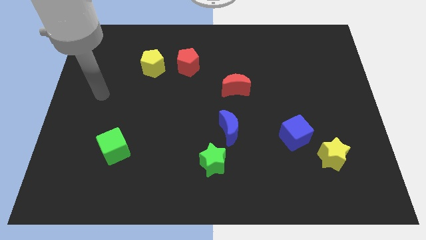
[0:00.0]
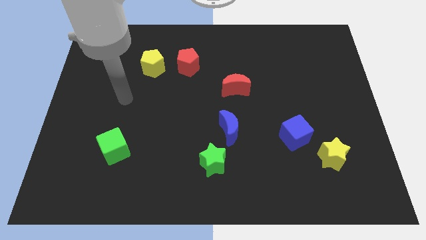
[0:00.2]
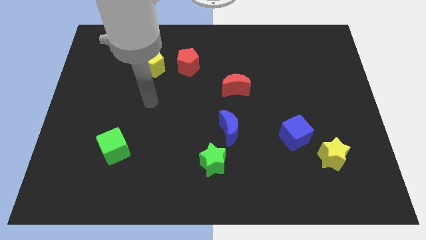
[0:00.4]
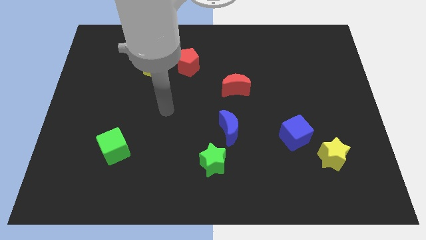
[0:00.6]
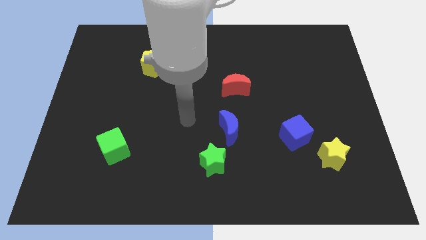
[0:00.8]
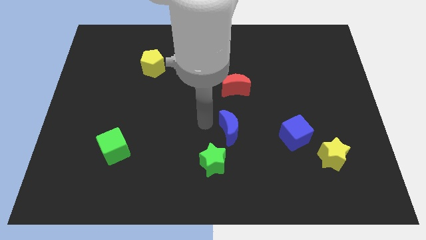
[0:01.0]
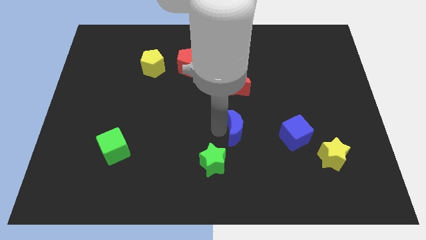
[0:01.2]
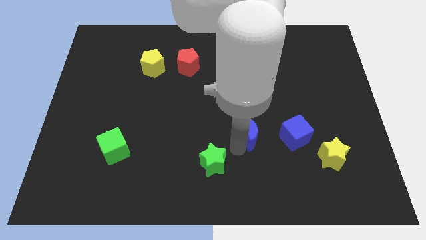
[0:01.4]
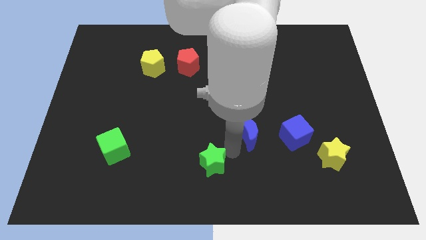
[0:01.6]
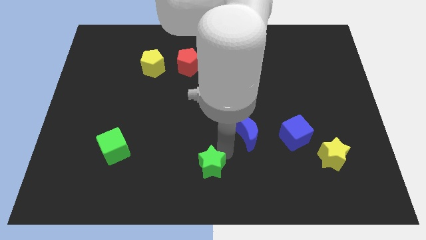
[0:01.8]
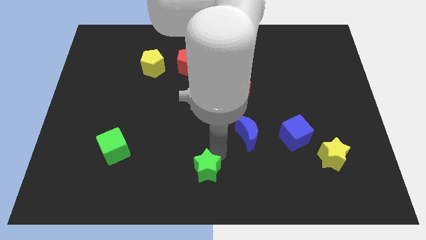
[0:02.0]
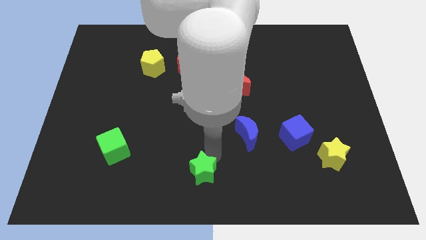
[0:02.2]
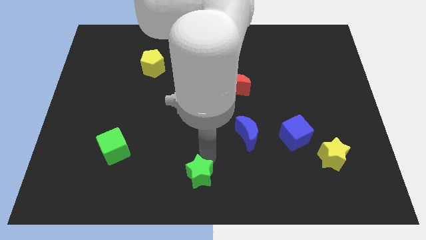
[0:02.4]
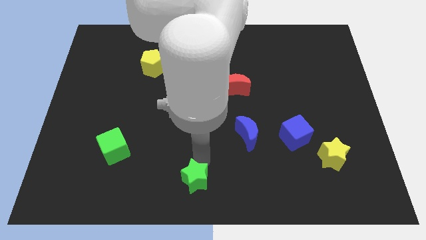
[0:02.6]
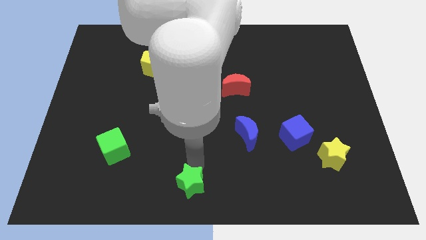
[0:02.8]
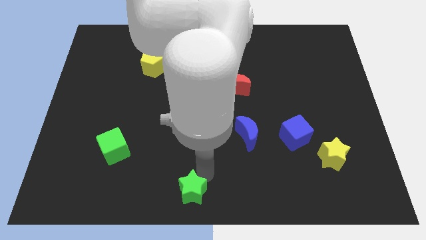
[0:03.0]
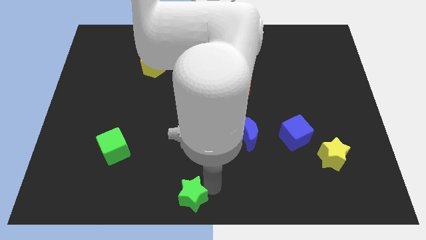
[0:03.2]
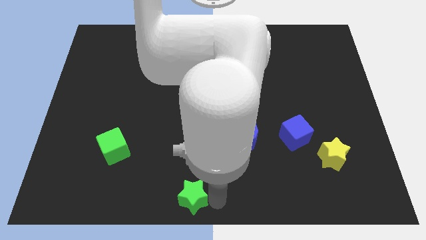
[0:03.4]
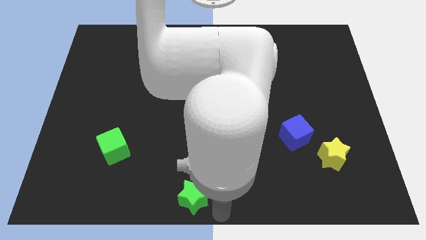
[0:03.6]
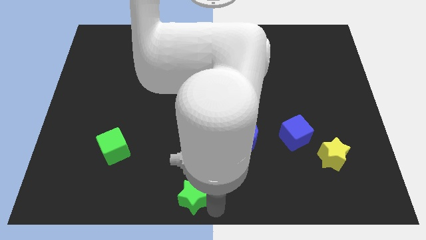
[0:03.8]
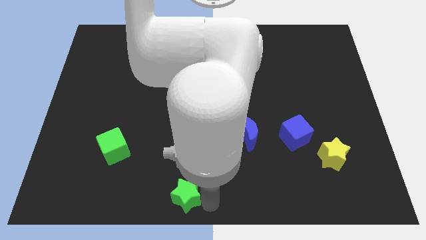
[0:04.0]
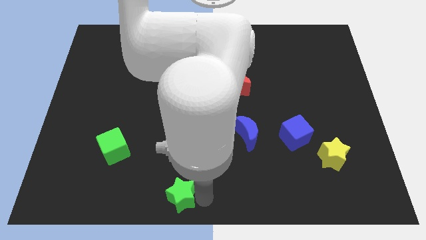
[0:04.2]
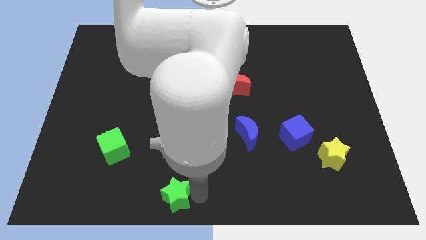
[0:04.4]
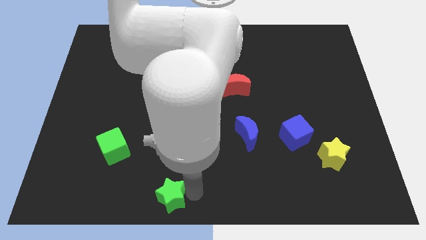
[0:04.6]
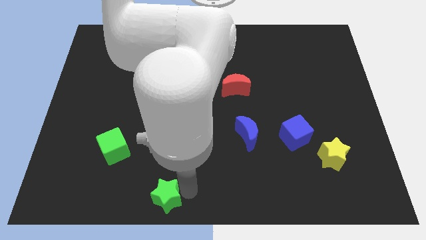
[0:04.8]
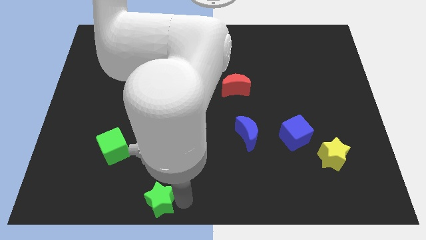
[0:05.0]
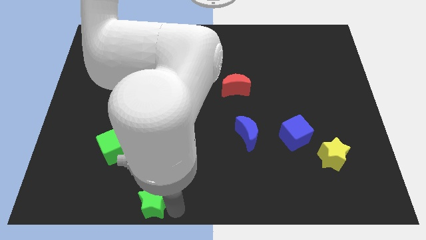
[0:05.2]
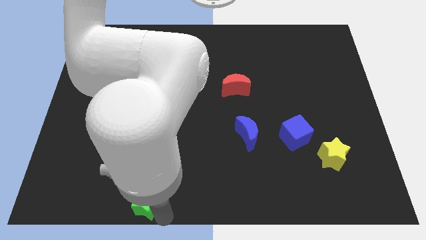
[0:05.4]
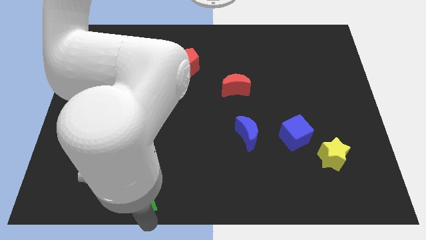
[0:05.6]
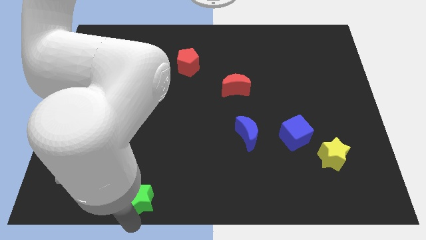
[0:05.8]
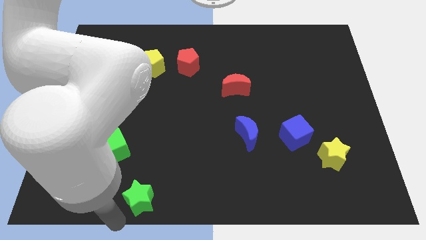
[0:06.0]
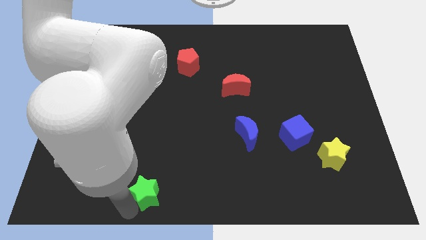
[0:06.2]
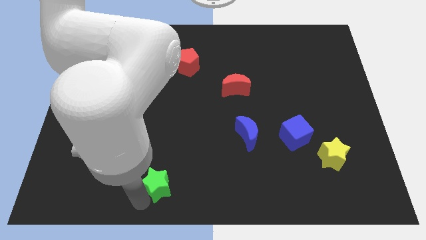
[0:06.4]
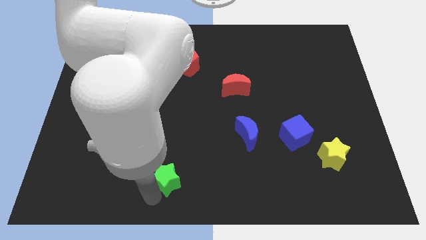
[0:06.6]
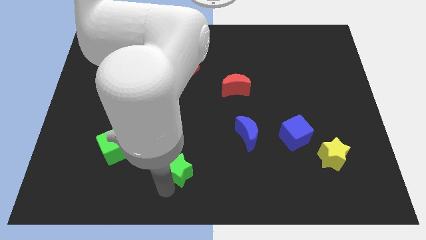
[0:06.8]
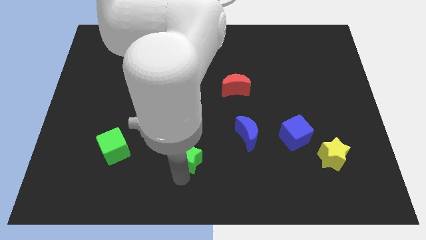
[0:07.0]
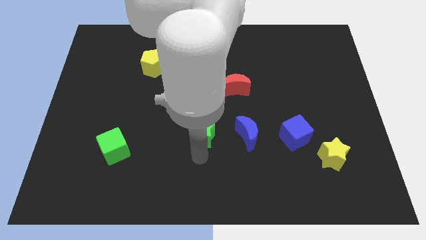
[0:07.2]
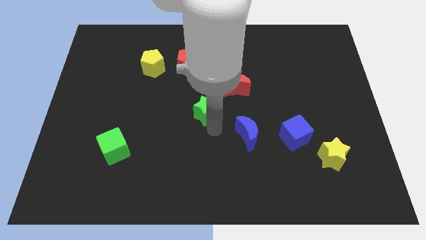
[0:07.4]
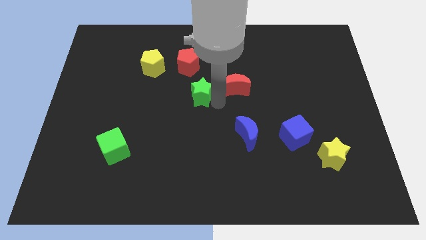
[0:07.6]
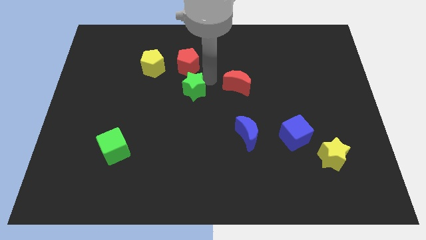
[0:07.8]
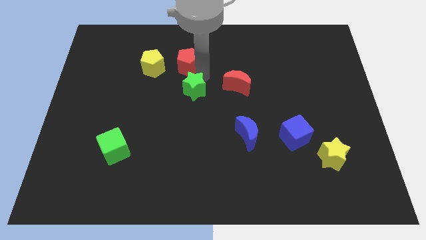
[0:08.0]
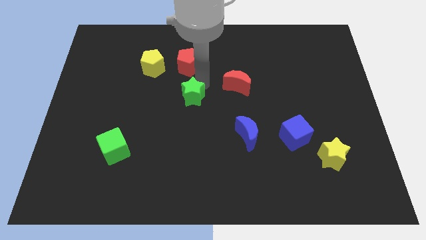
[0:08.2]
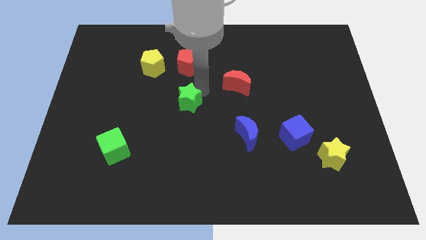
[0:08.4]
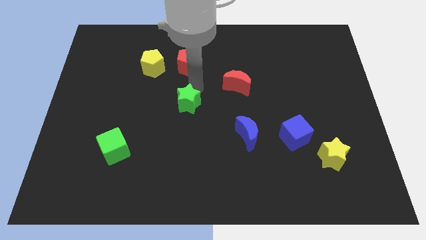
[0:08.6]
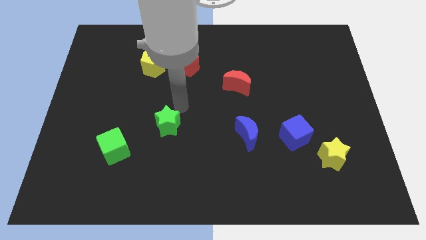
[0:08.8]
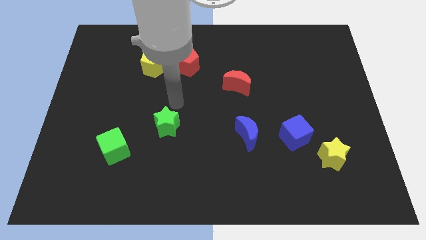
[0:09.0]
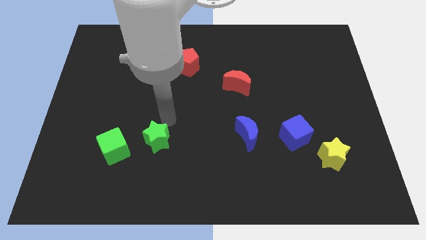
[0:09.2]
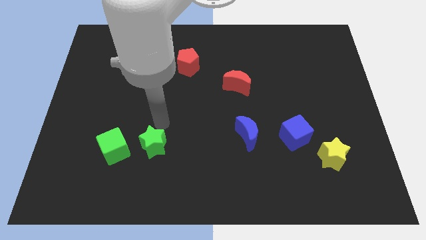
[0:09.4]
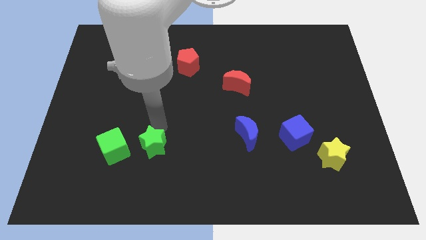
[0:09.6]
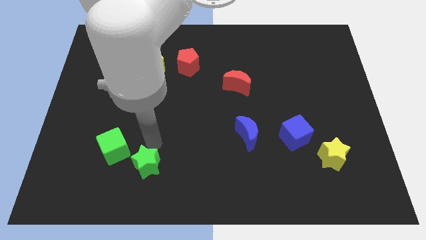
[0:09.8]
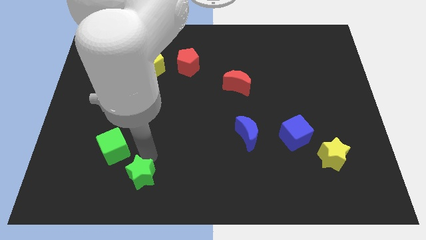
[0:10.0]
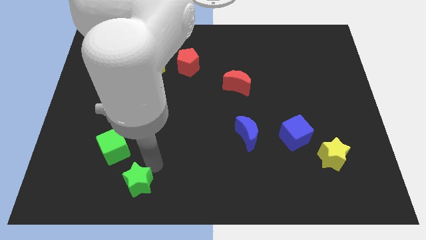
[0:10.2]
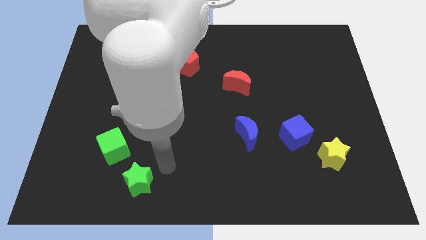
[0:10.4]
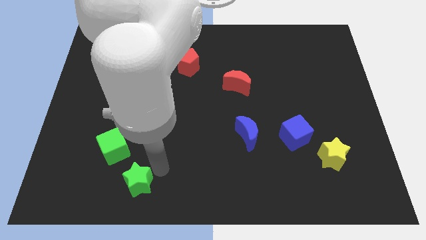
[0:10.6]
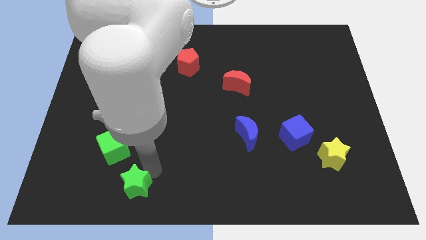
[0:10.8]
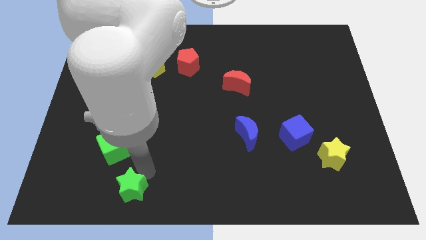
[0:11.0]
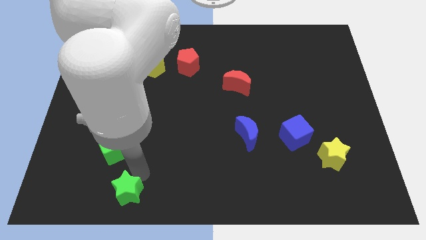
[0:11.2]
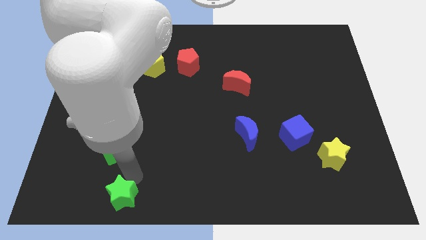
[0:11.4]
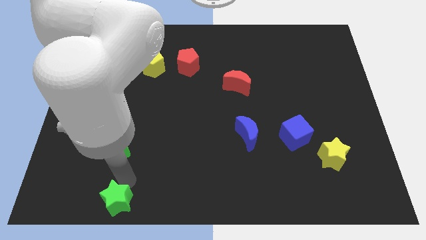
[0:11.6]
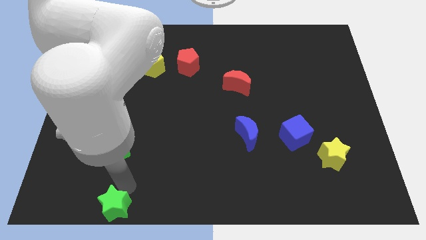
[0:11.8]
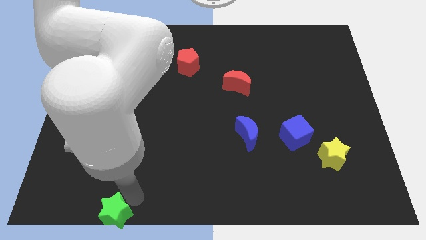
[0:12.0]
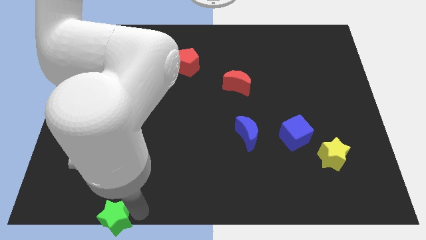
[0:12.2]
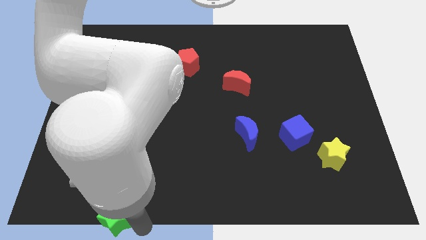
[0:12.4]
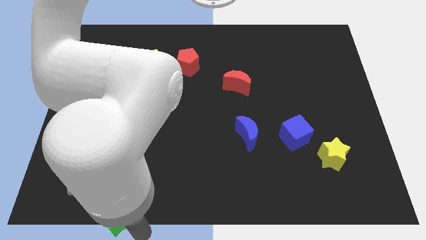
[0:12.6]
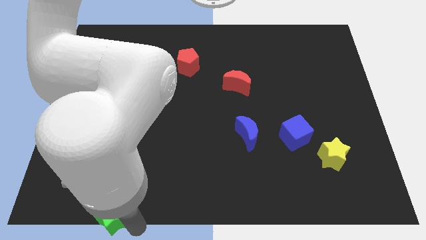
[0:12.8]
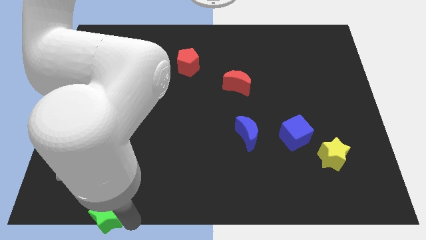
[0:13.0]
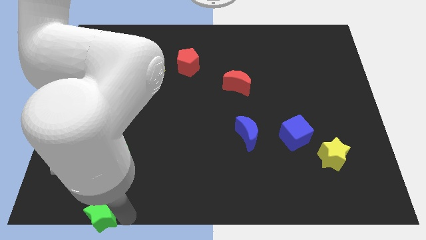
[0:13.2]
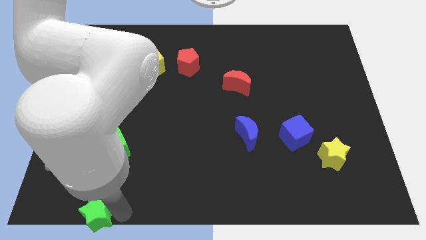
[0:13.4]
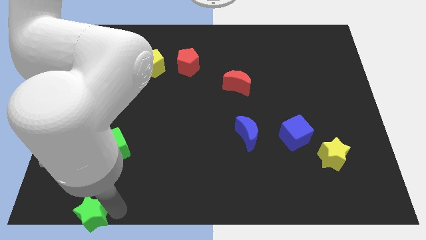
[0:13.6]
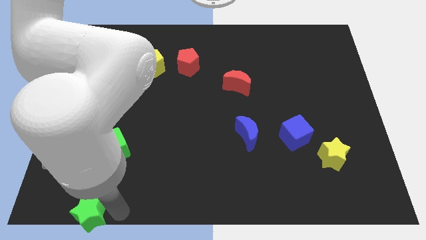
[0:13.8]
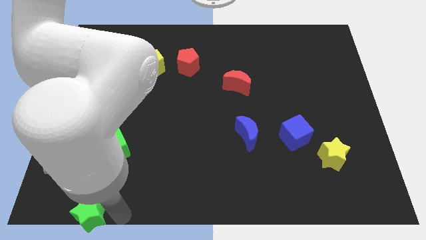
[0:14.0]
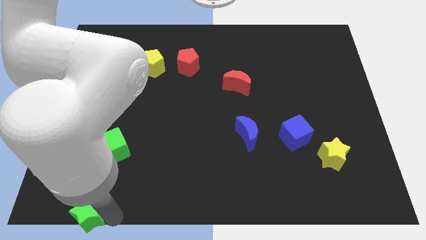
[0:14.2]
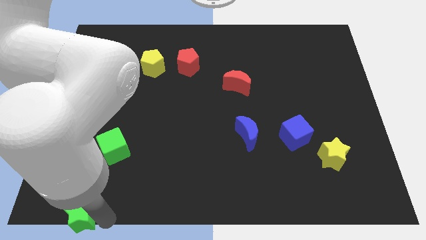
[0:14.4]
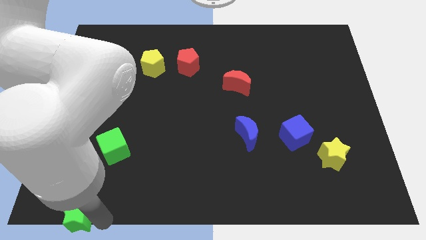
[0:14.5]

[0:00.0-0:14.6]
push the green star to the bottom left
